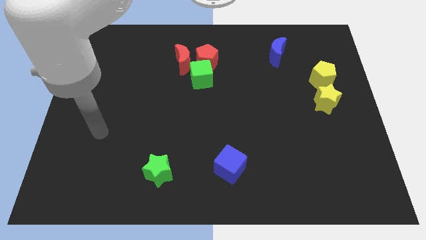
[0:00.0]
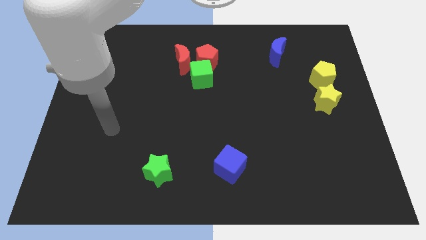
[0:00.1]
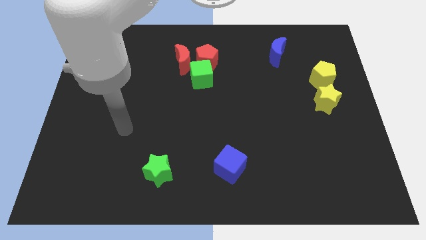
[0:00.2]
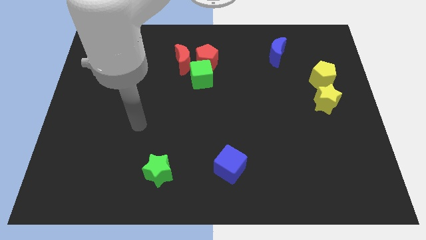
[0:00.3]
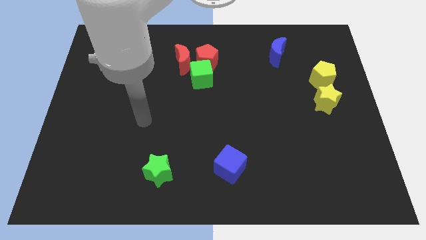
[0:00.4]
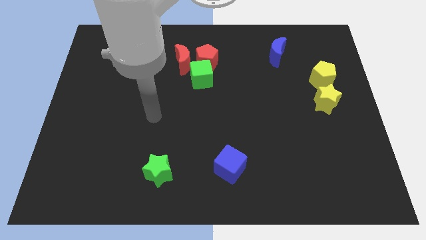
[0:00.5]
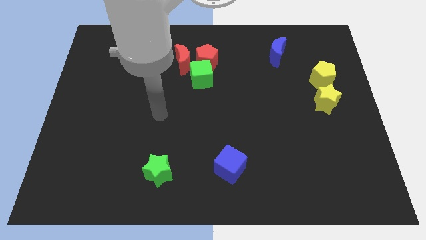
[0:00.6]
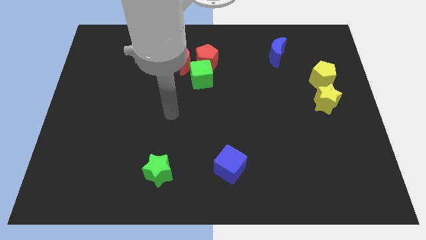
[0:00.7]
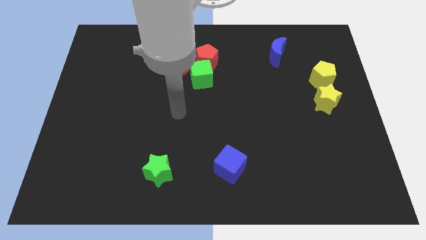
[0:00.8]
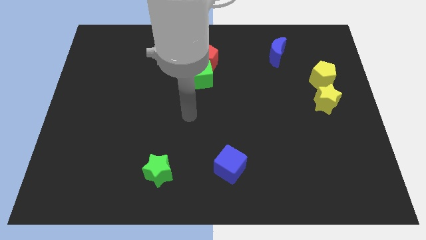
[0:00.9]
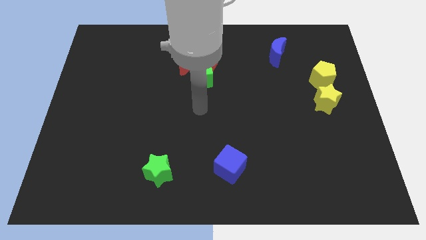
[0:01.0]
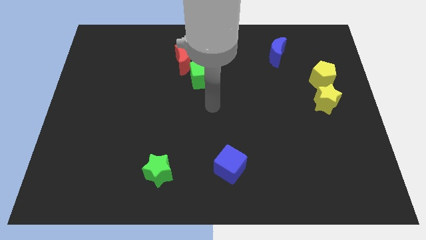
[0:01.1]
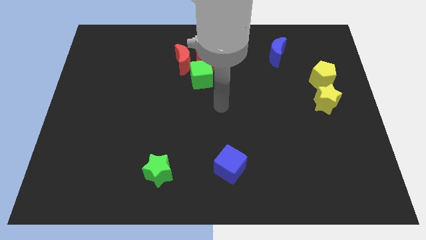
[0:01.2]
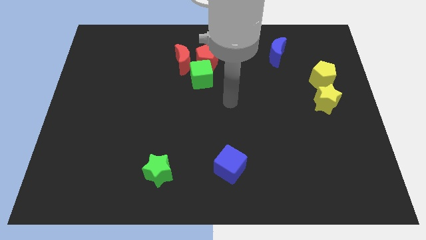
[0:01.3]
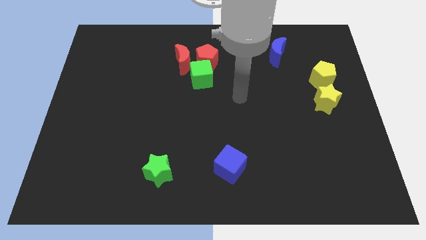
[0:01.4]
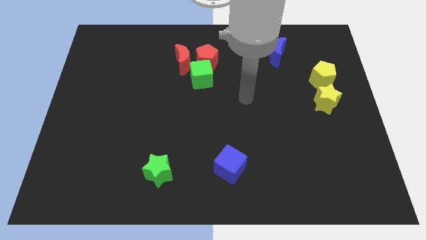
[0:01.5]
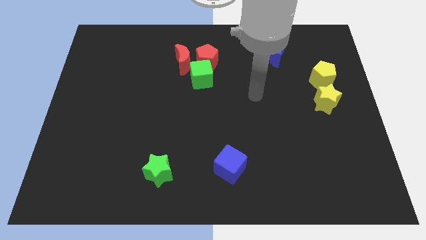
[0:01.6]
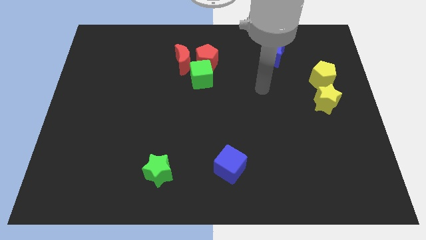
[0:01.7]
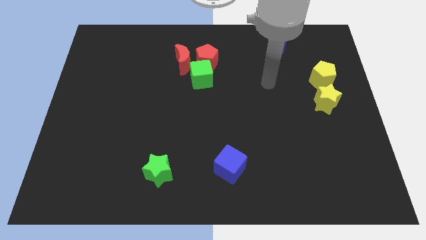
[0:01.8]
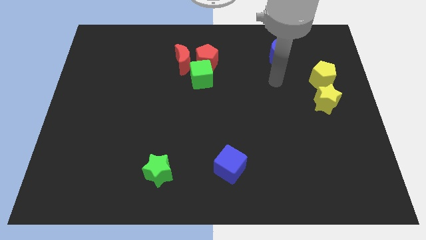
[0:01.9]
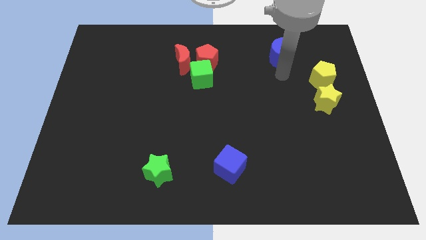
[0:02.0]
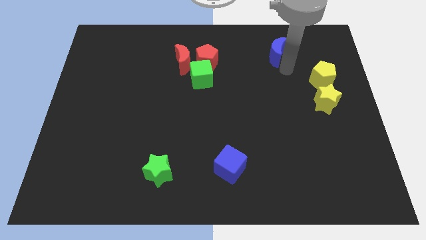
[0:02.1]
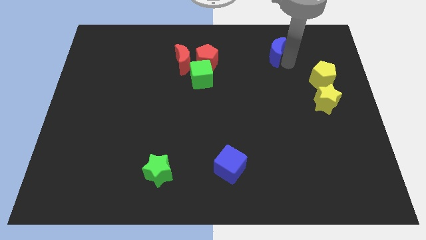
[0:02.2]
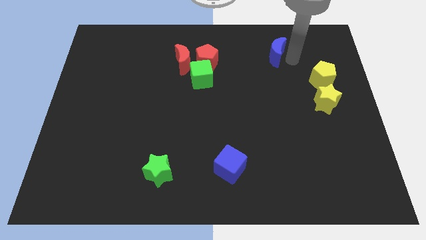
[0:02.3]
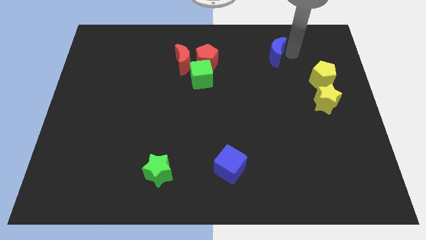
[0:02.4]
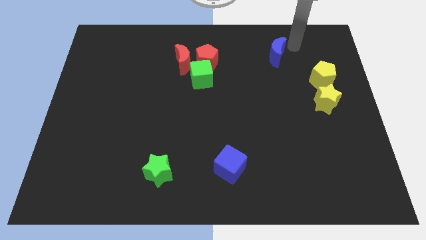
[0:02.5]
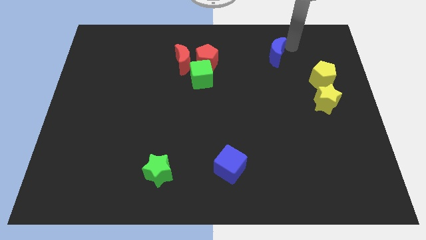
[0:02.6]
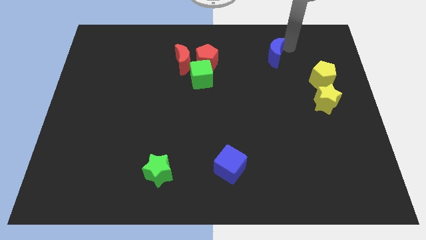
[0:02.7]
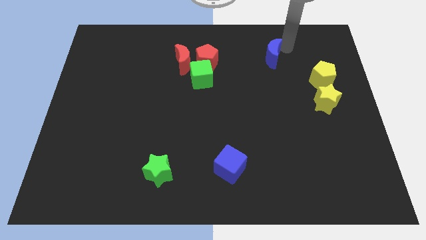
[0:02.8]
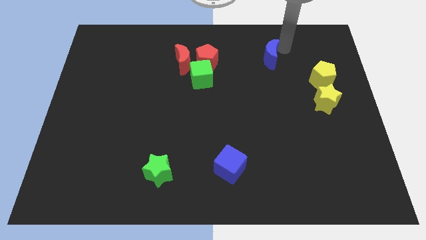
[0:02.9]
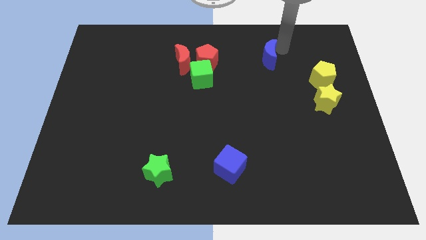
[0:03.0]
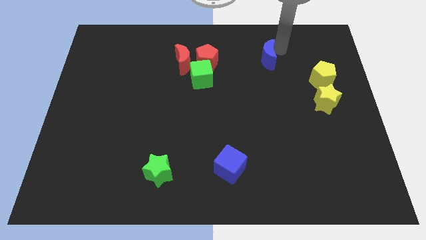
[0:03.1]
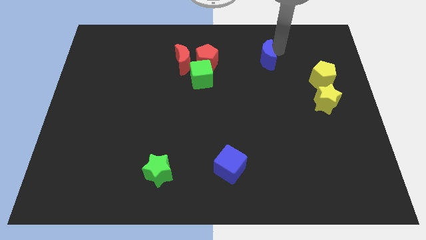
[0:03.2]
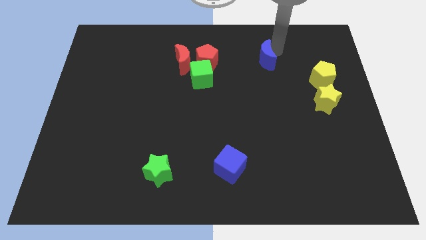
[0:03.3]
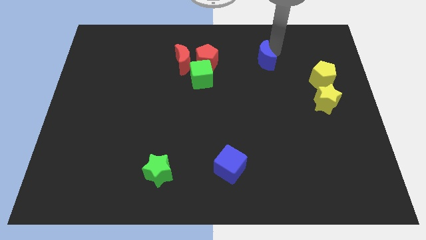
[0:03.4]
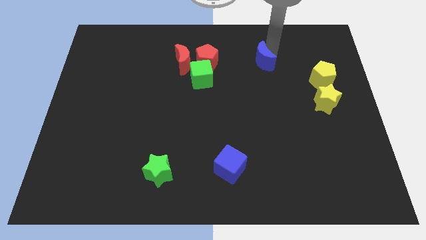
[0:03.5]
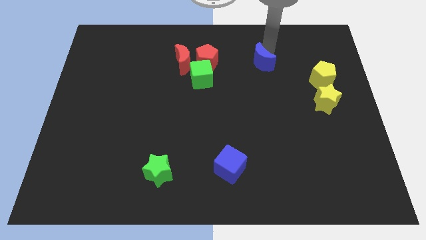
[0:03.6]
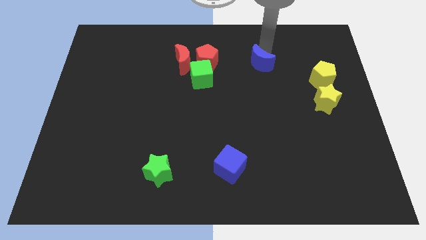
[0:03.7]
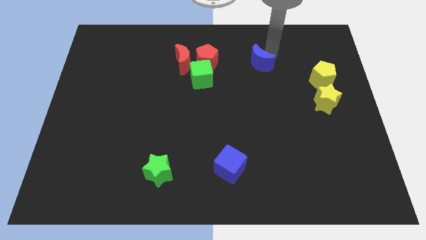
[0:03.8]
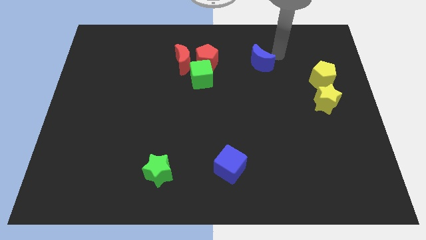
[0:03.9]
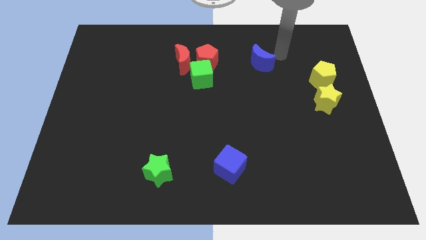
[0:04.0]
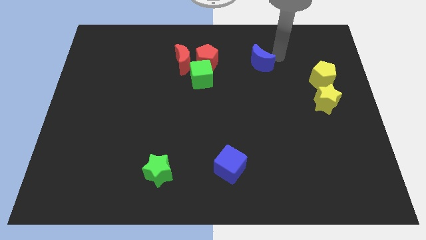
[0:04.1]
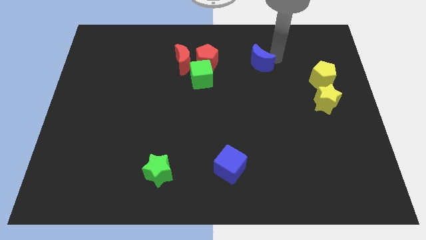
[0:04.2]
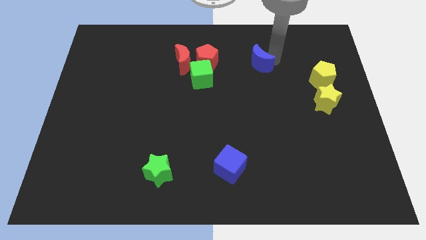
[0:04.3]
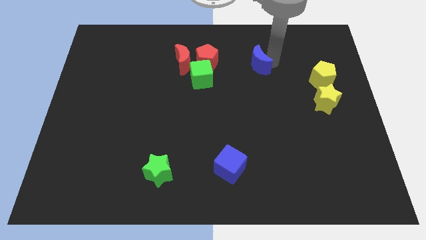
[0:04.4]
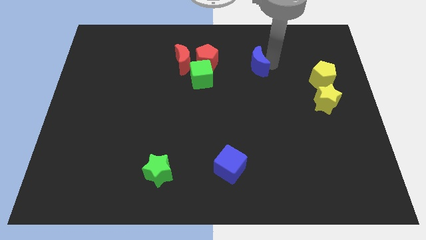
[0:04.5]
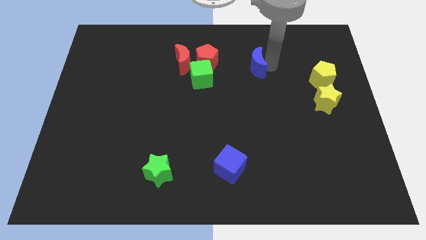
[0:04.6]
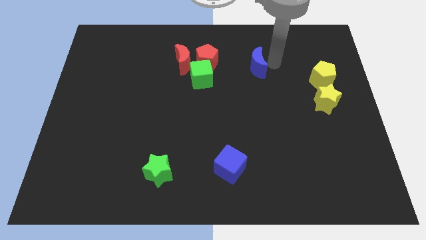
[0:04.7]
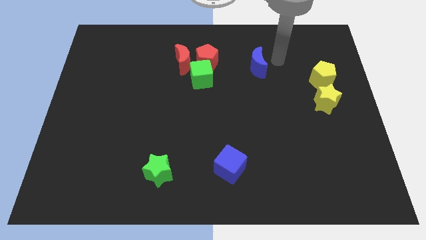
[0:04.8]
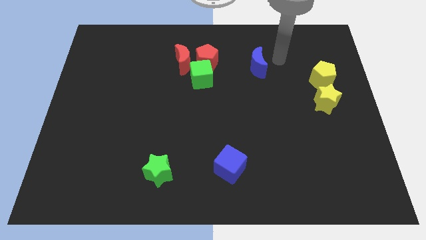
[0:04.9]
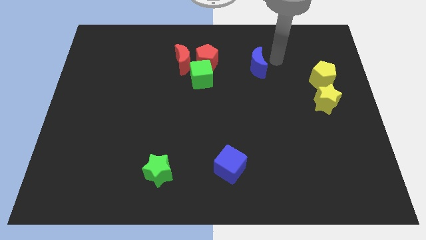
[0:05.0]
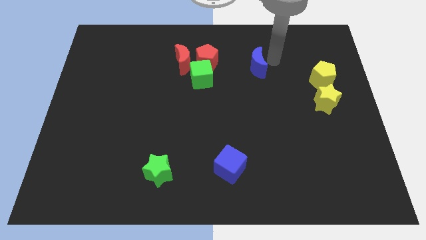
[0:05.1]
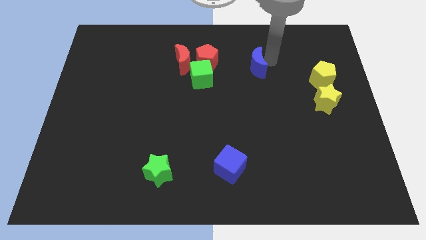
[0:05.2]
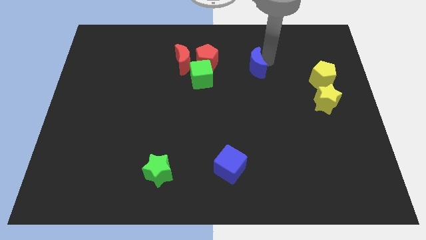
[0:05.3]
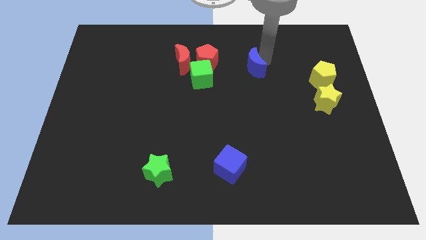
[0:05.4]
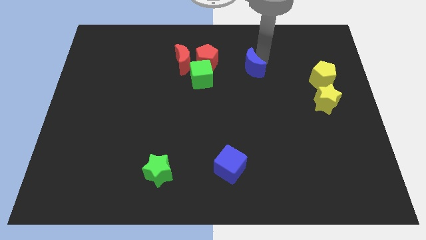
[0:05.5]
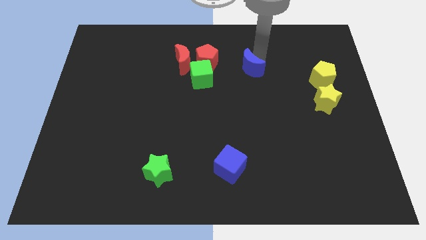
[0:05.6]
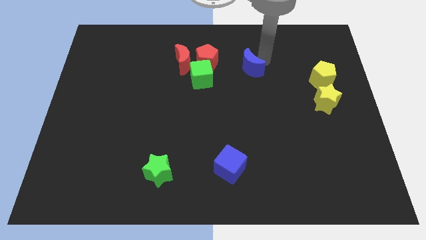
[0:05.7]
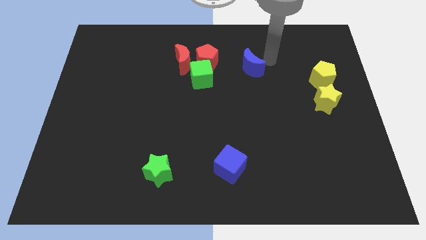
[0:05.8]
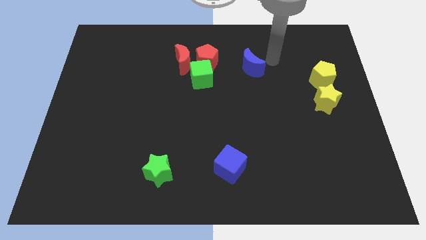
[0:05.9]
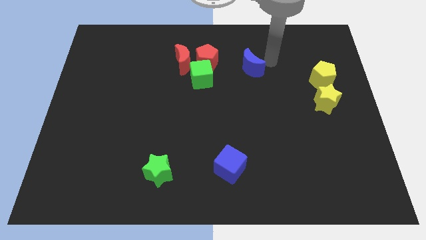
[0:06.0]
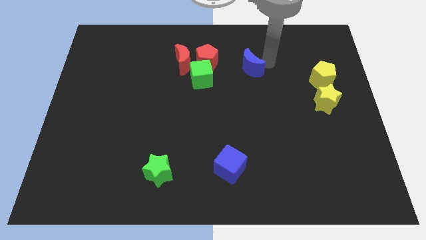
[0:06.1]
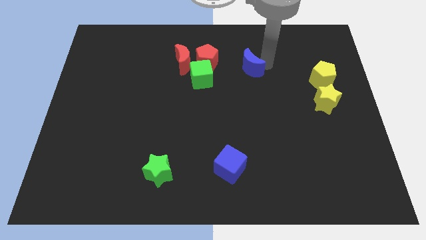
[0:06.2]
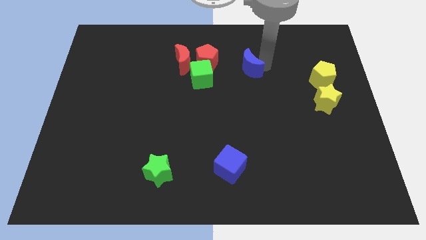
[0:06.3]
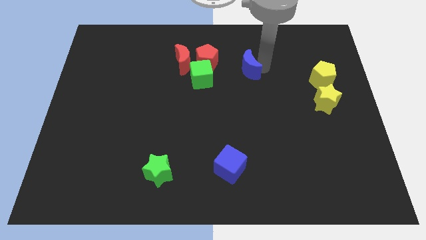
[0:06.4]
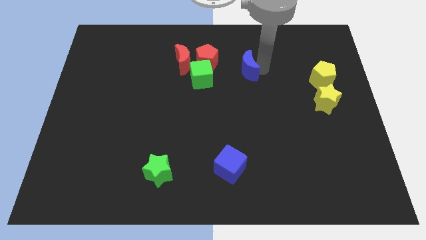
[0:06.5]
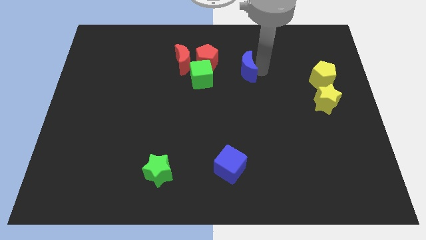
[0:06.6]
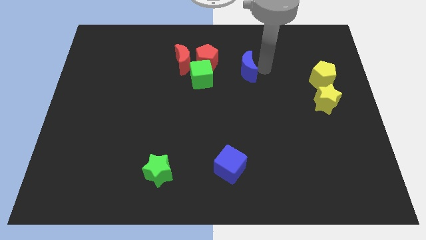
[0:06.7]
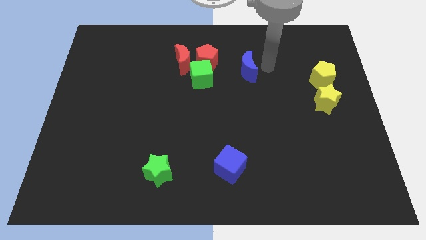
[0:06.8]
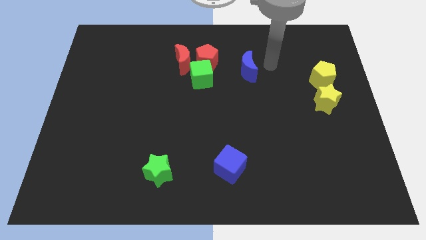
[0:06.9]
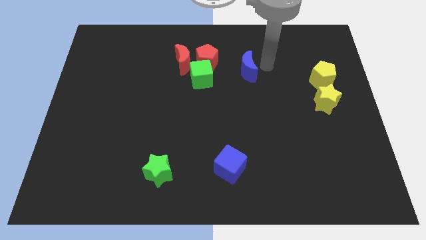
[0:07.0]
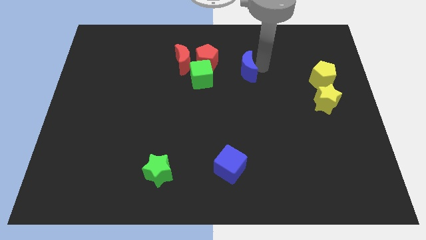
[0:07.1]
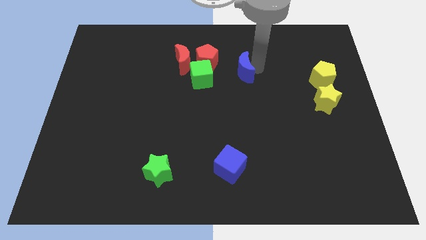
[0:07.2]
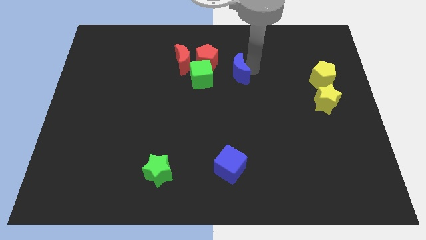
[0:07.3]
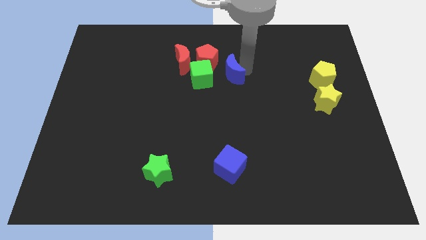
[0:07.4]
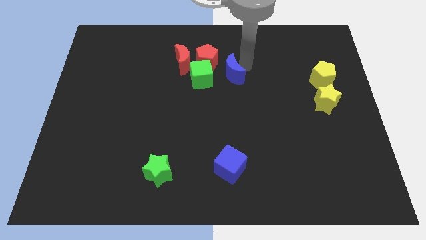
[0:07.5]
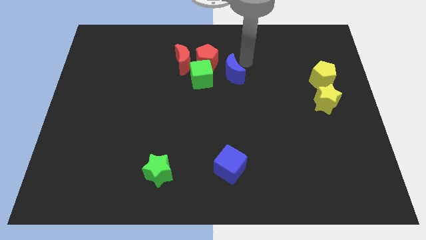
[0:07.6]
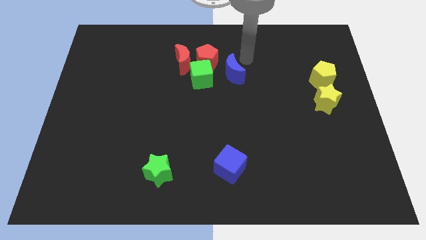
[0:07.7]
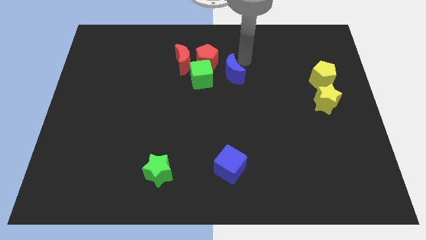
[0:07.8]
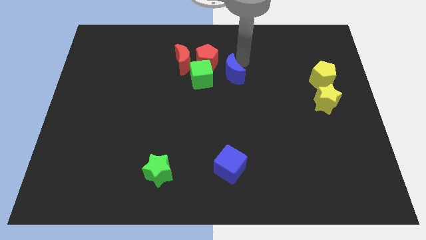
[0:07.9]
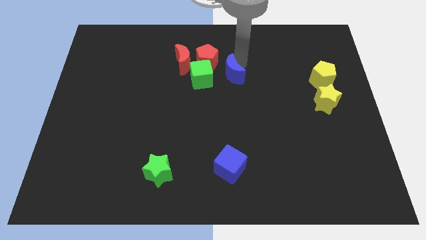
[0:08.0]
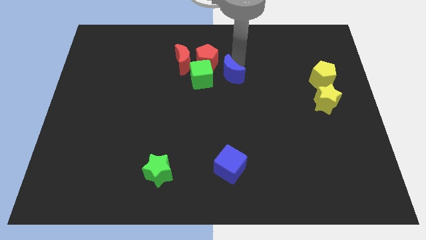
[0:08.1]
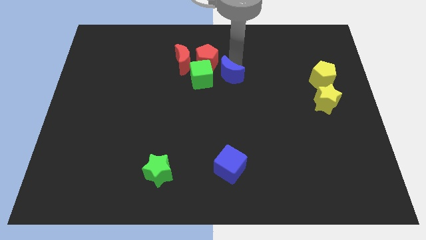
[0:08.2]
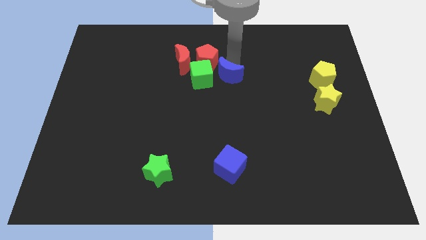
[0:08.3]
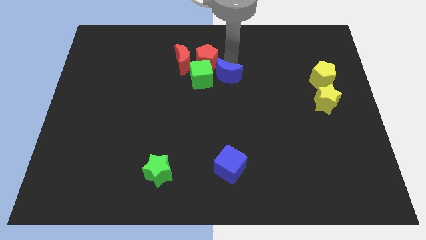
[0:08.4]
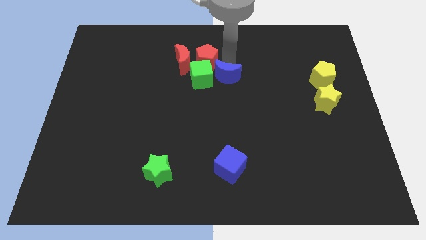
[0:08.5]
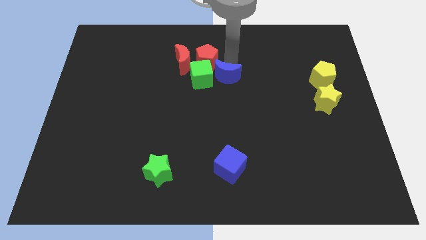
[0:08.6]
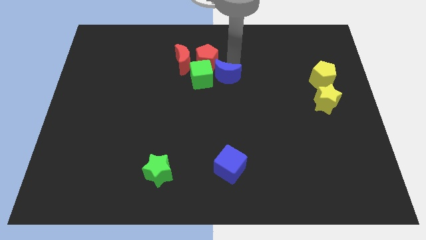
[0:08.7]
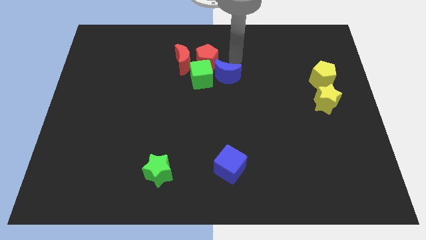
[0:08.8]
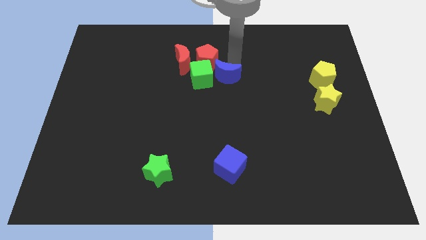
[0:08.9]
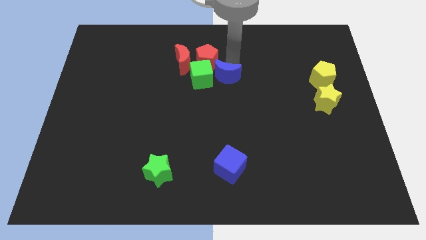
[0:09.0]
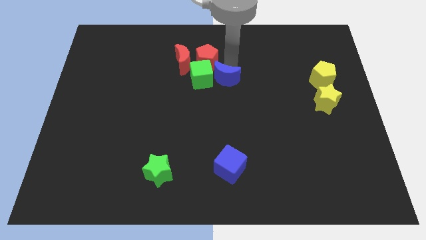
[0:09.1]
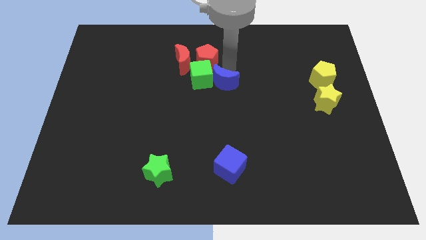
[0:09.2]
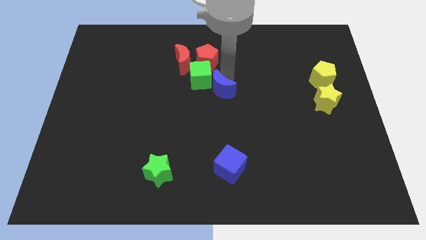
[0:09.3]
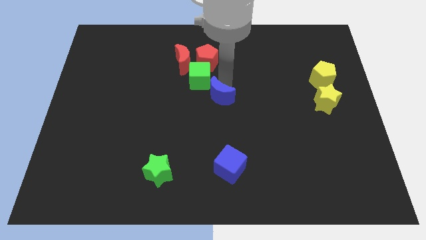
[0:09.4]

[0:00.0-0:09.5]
move the blue moon below the green cube
